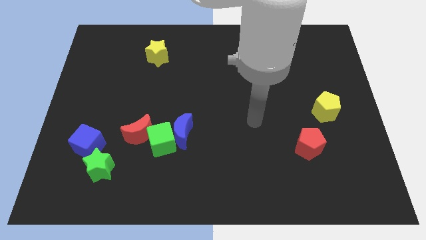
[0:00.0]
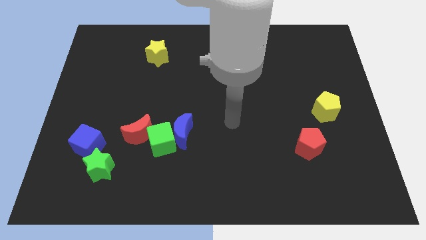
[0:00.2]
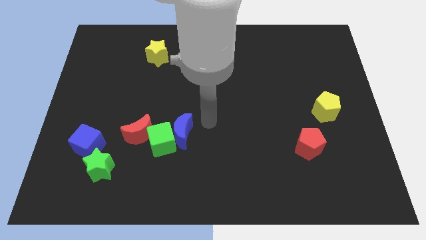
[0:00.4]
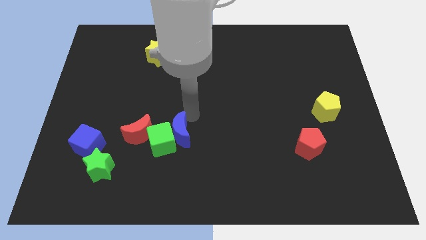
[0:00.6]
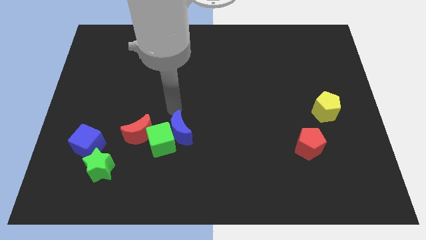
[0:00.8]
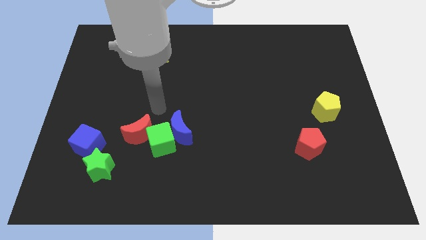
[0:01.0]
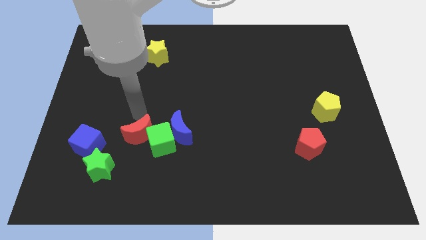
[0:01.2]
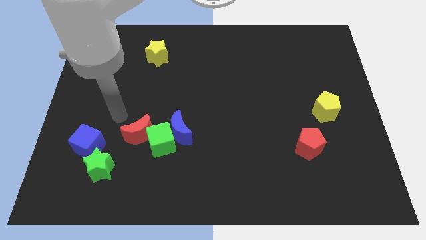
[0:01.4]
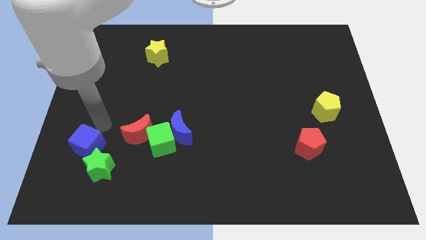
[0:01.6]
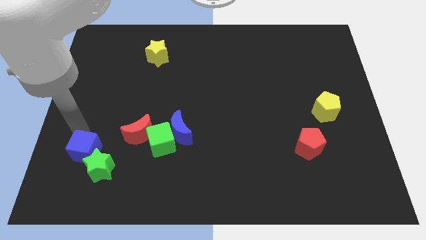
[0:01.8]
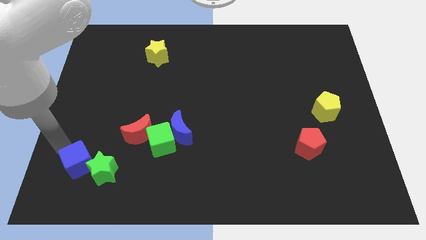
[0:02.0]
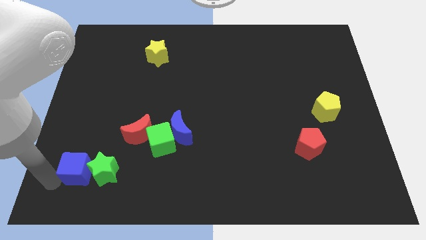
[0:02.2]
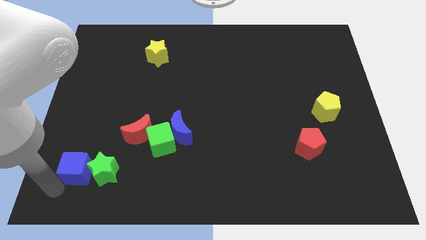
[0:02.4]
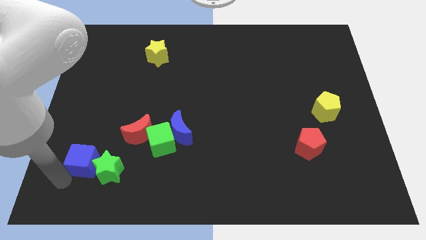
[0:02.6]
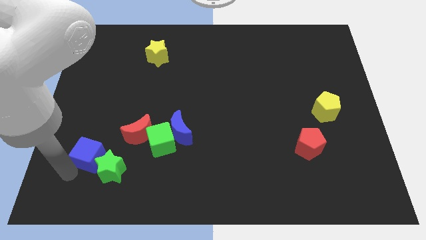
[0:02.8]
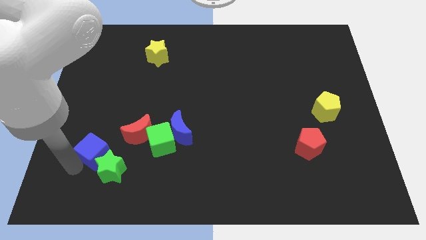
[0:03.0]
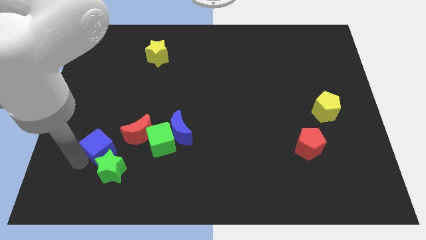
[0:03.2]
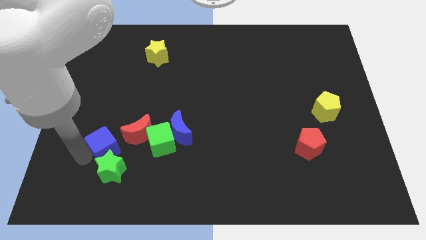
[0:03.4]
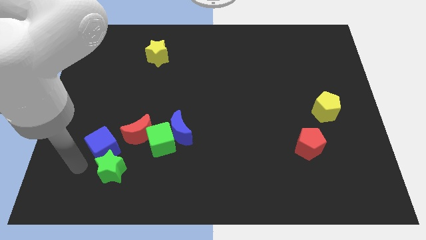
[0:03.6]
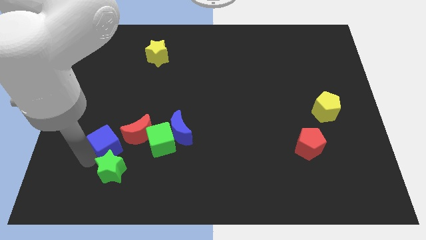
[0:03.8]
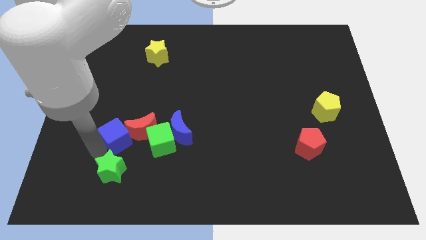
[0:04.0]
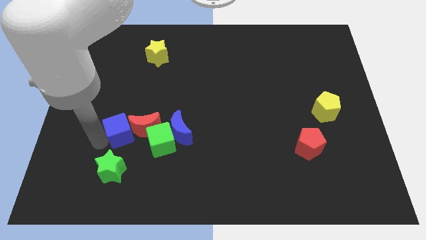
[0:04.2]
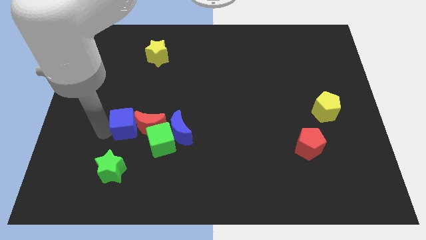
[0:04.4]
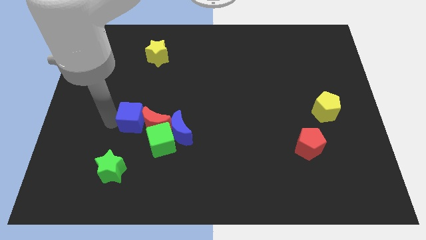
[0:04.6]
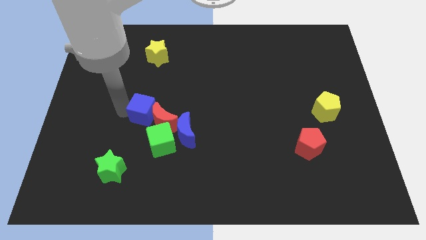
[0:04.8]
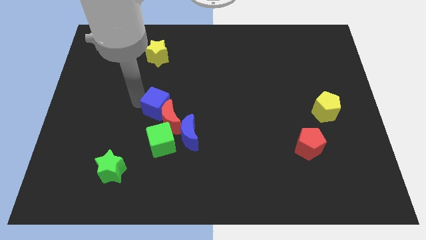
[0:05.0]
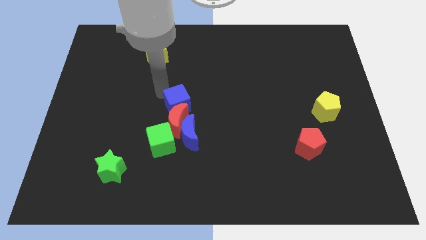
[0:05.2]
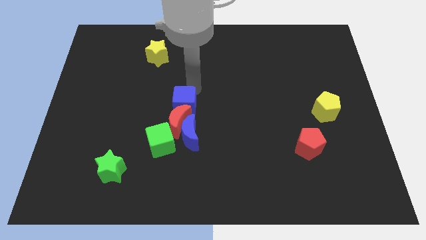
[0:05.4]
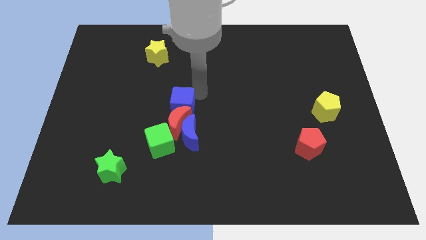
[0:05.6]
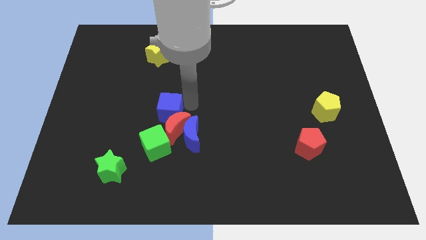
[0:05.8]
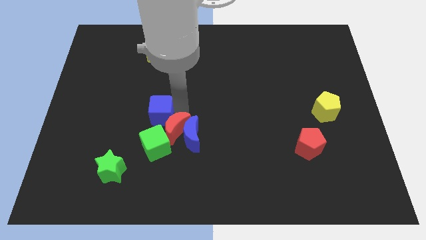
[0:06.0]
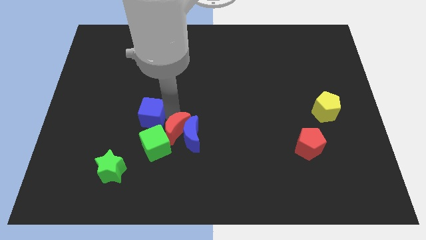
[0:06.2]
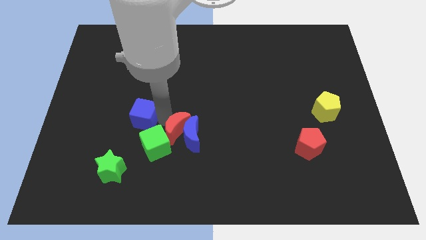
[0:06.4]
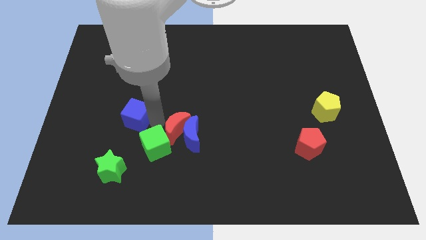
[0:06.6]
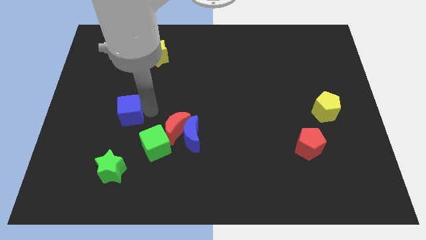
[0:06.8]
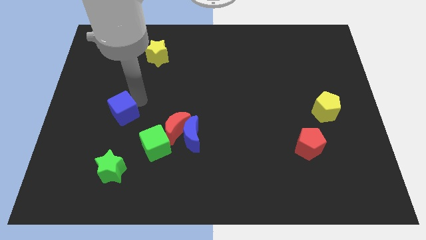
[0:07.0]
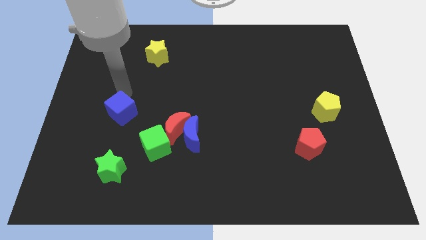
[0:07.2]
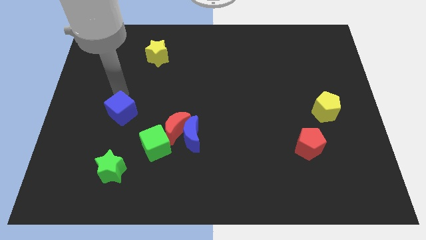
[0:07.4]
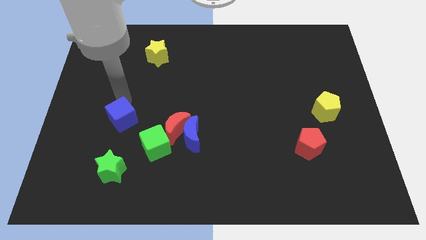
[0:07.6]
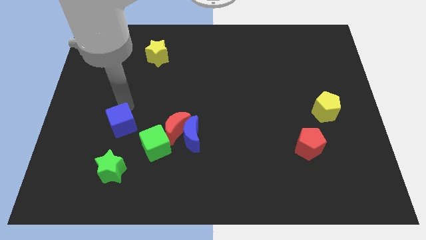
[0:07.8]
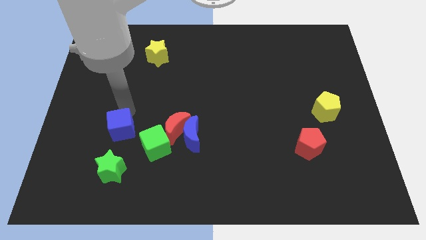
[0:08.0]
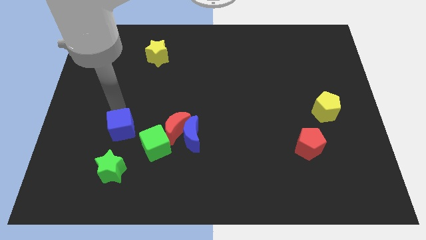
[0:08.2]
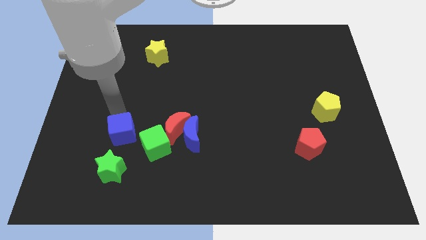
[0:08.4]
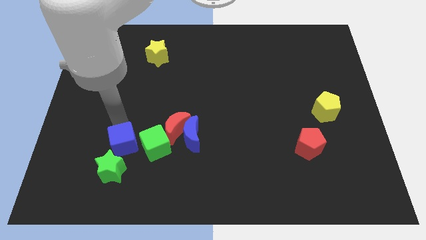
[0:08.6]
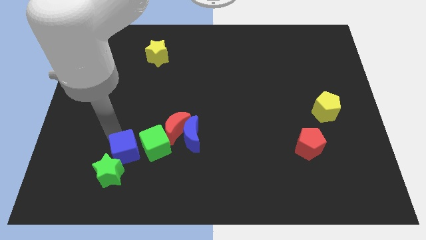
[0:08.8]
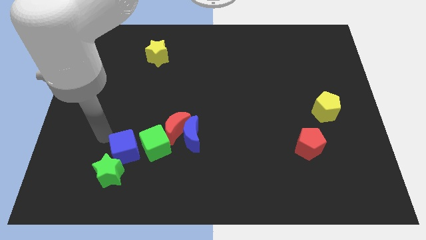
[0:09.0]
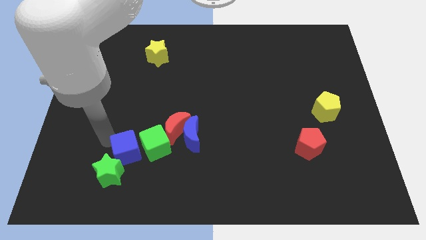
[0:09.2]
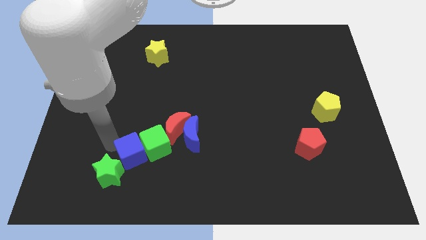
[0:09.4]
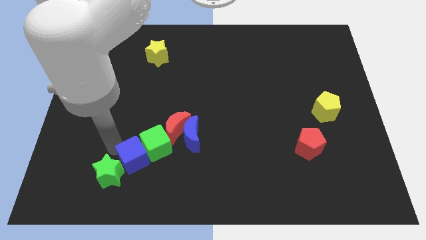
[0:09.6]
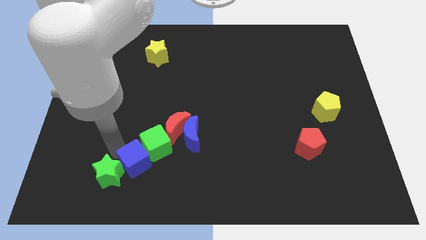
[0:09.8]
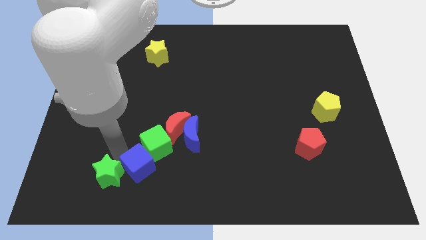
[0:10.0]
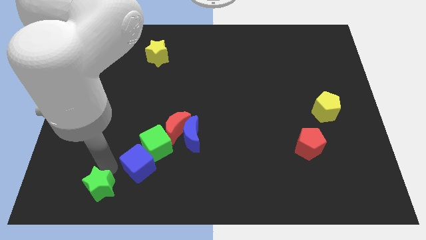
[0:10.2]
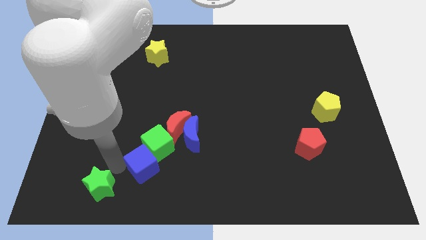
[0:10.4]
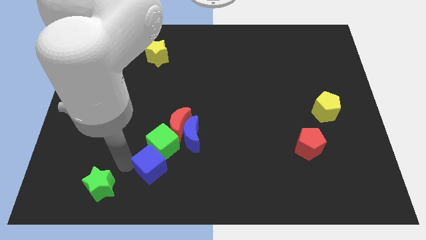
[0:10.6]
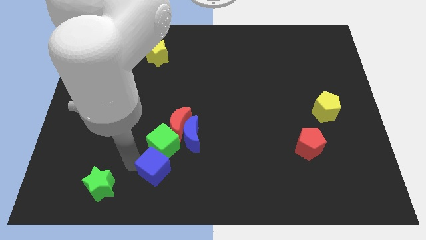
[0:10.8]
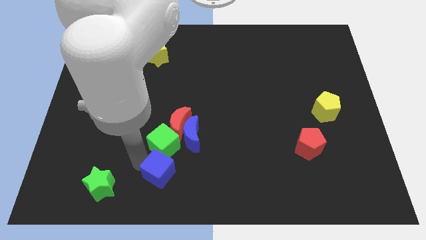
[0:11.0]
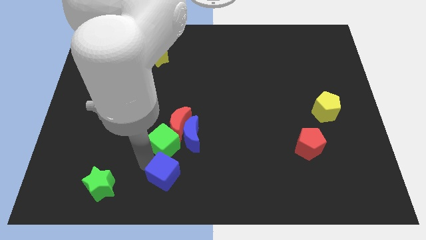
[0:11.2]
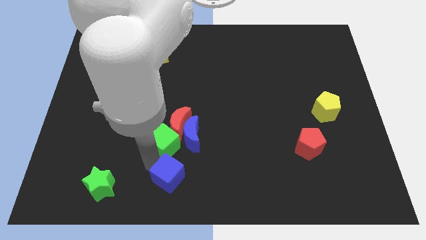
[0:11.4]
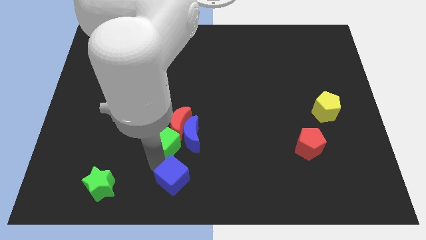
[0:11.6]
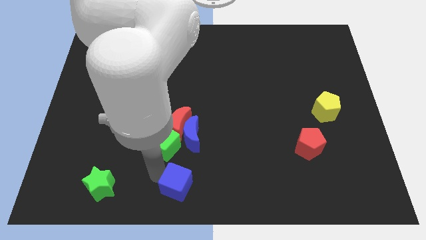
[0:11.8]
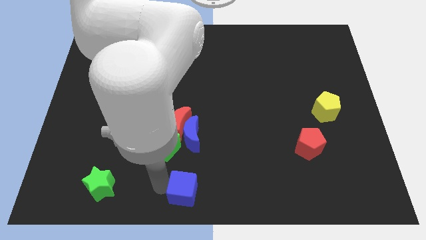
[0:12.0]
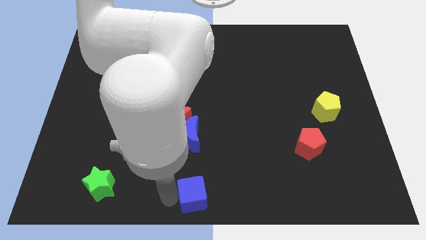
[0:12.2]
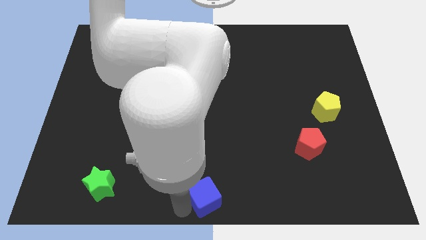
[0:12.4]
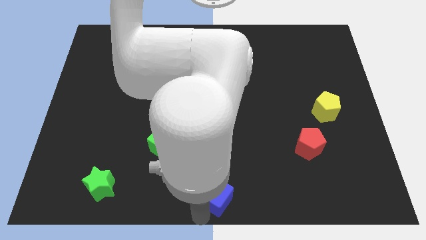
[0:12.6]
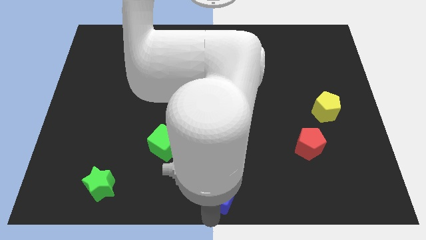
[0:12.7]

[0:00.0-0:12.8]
slide the blue cube to the right

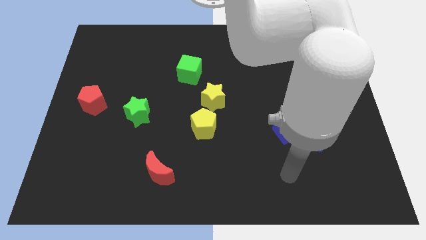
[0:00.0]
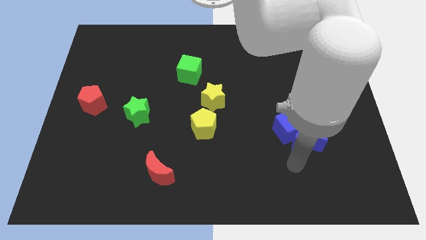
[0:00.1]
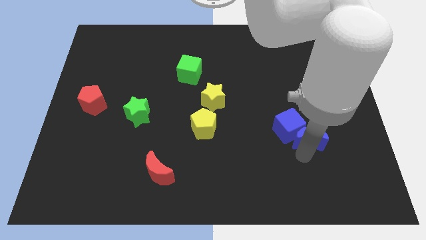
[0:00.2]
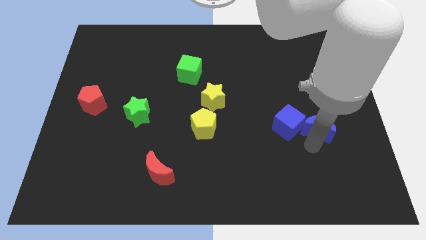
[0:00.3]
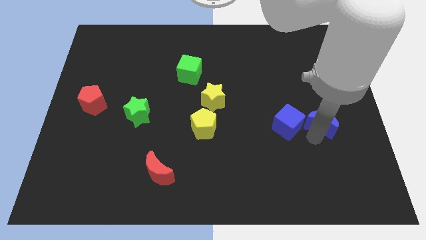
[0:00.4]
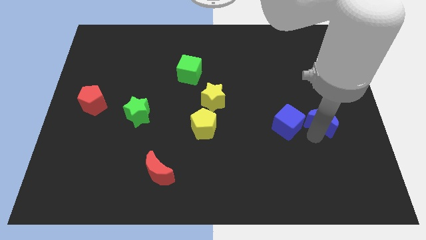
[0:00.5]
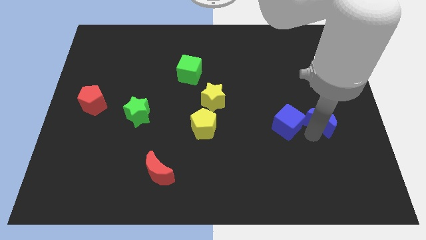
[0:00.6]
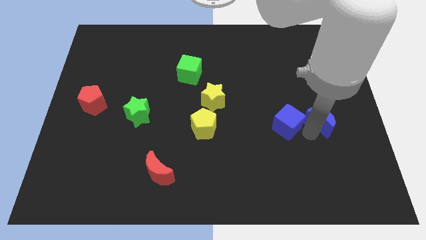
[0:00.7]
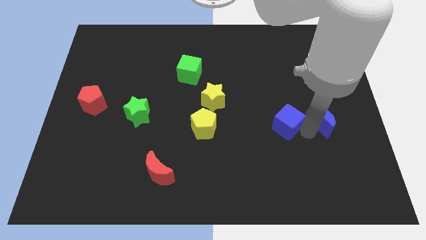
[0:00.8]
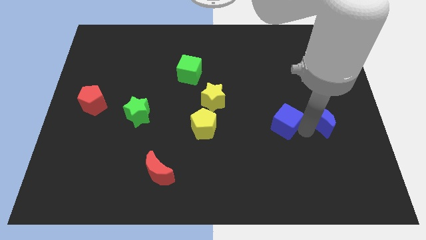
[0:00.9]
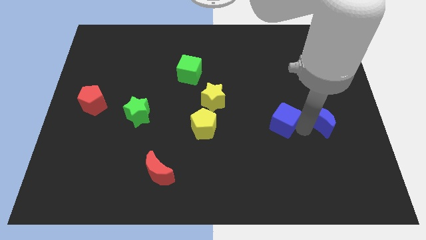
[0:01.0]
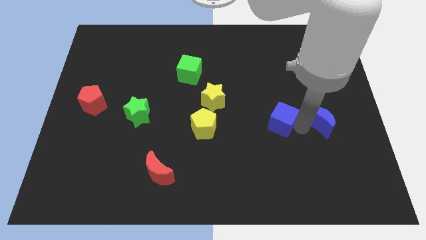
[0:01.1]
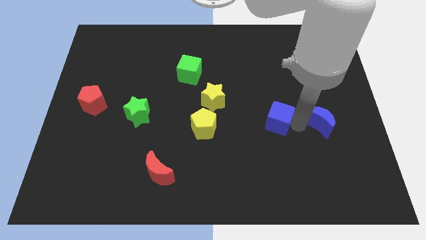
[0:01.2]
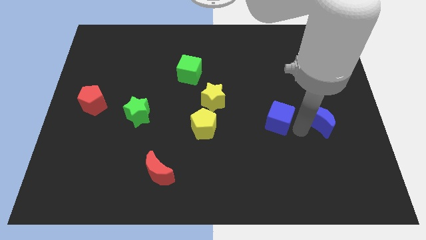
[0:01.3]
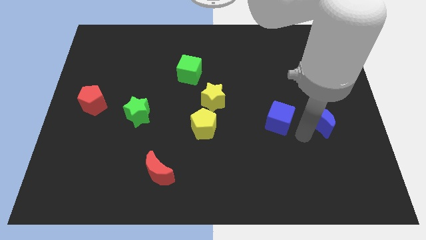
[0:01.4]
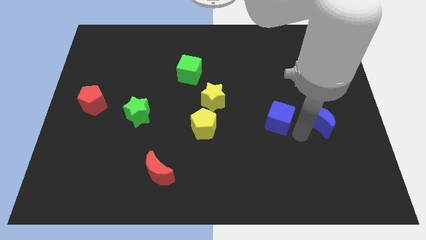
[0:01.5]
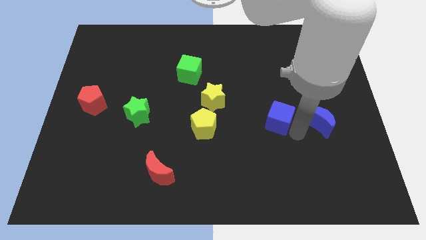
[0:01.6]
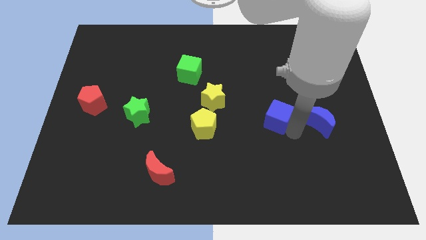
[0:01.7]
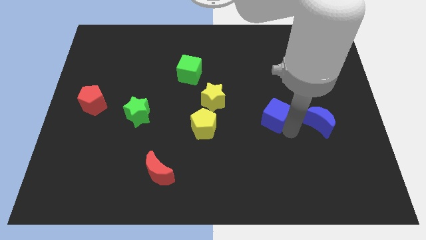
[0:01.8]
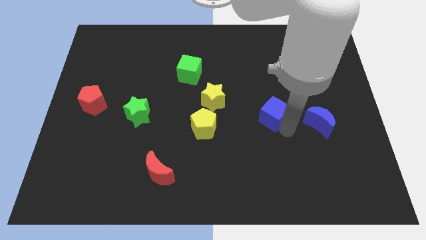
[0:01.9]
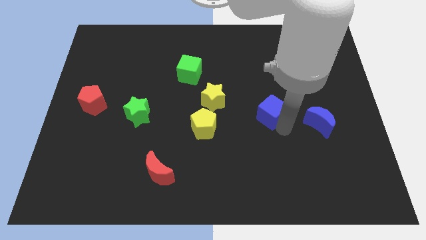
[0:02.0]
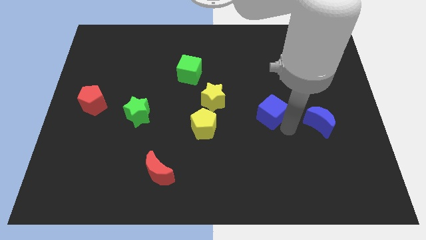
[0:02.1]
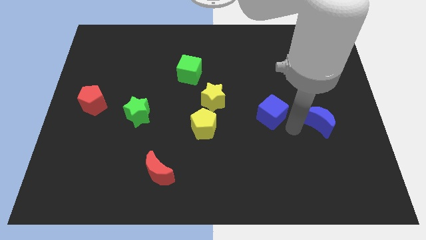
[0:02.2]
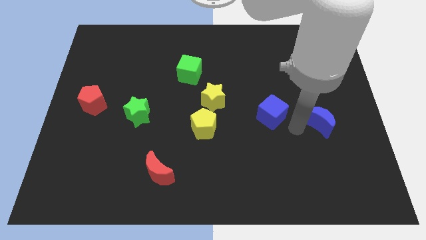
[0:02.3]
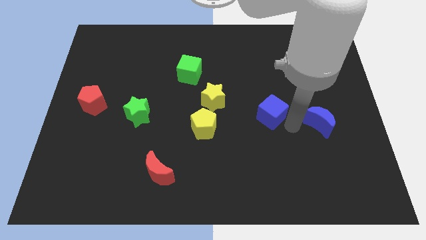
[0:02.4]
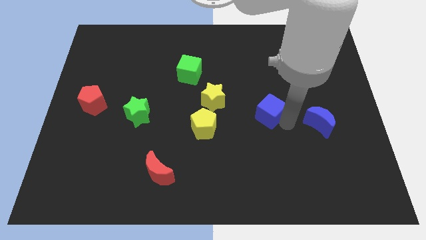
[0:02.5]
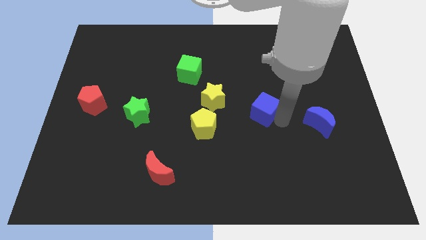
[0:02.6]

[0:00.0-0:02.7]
slightly push the blue cube up and then to the left
